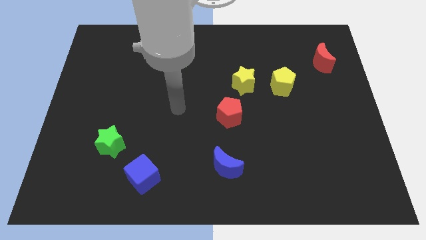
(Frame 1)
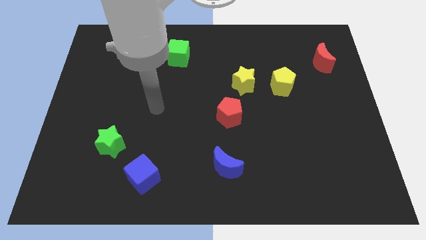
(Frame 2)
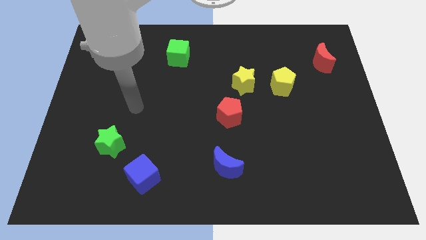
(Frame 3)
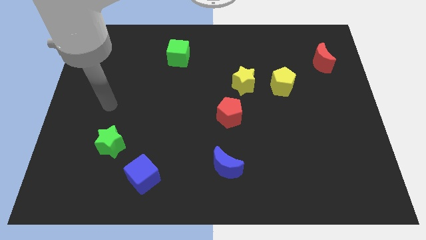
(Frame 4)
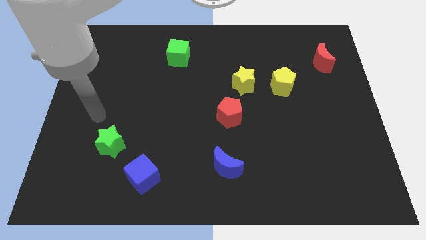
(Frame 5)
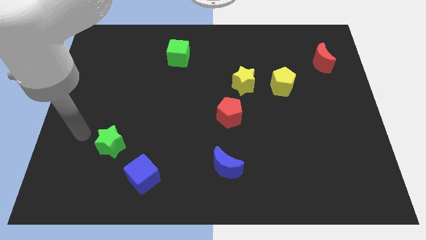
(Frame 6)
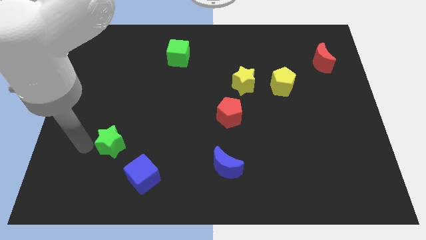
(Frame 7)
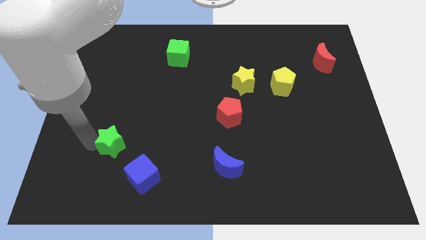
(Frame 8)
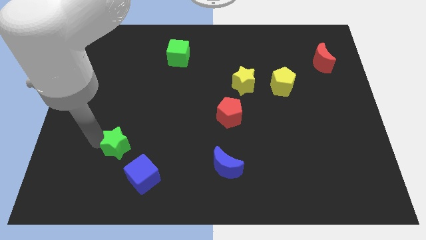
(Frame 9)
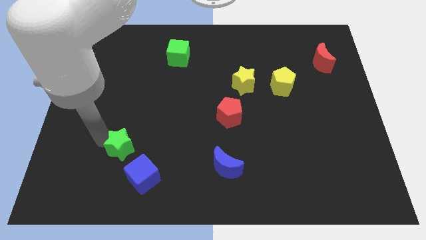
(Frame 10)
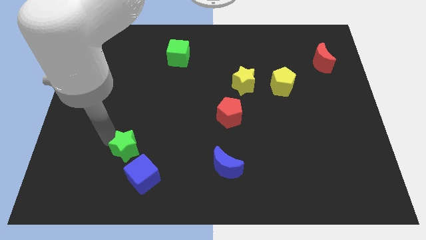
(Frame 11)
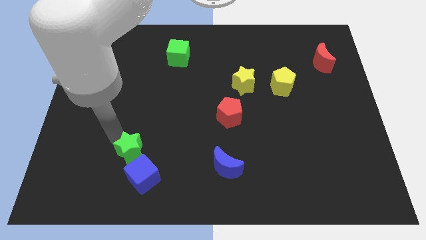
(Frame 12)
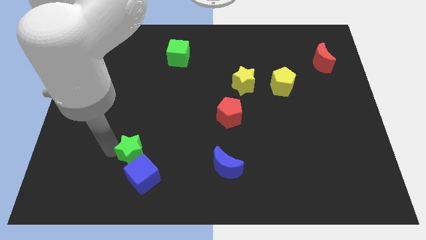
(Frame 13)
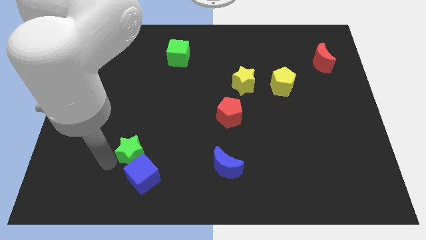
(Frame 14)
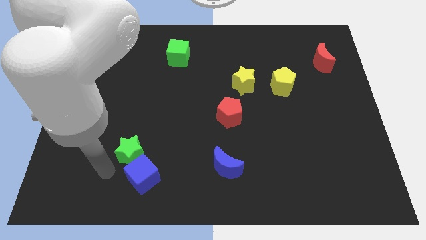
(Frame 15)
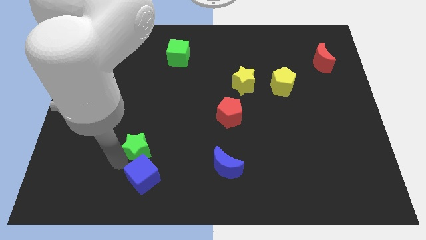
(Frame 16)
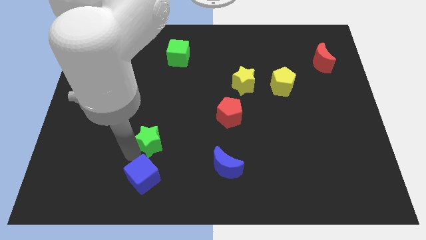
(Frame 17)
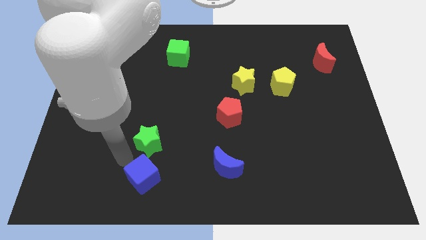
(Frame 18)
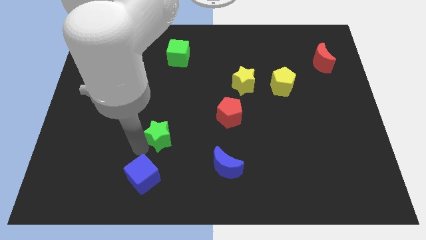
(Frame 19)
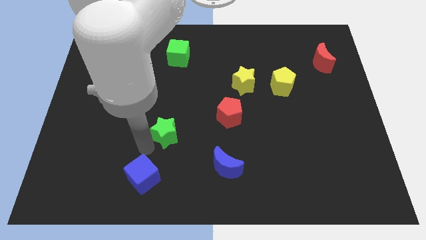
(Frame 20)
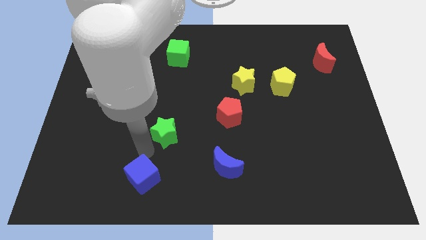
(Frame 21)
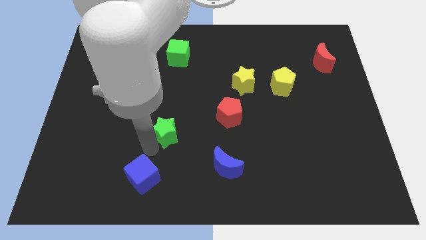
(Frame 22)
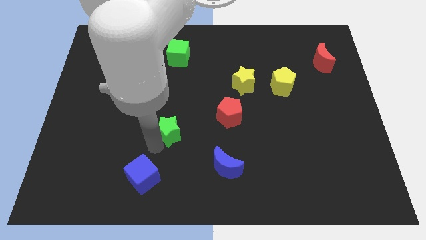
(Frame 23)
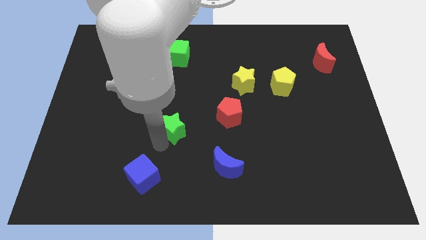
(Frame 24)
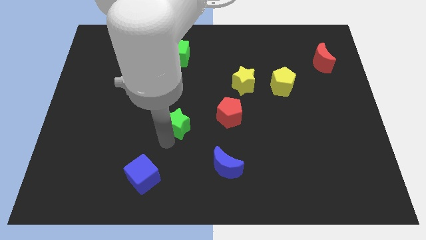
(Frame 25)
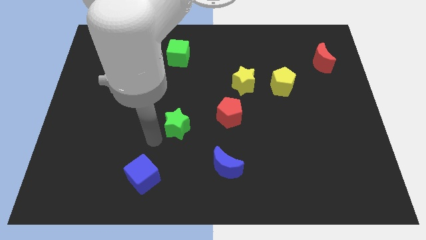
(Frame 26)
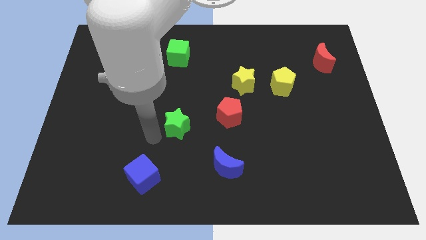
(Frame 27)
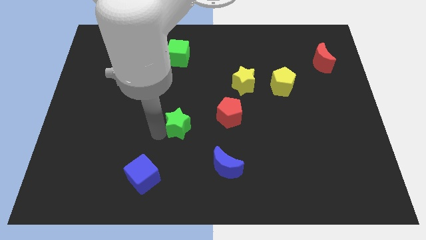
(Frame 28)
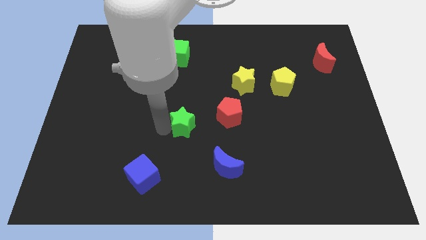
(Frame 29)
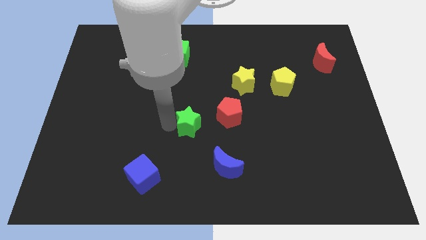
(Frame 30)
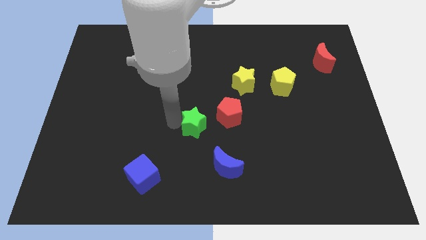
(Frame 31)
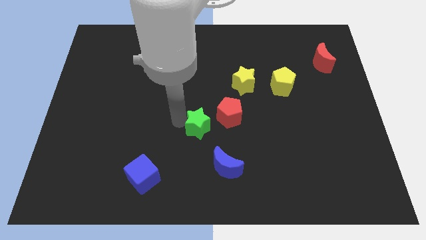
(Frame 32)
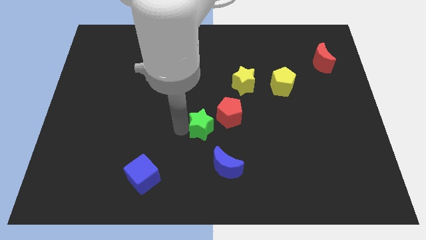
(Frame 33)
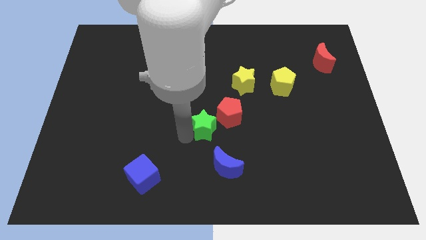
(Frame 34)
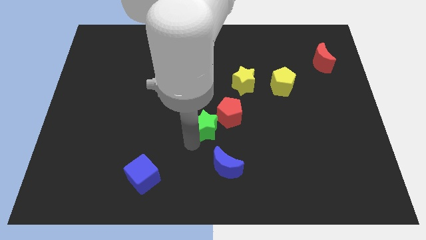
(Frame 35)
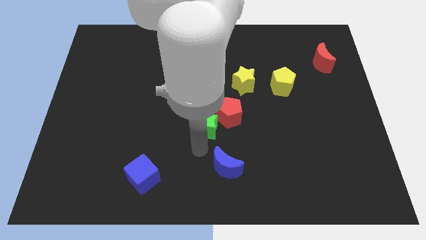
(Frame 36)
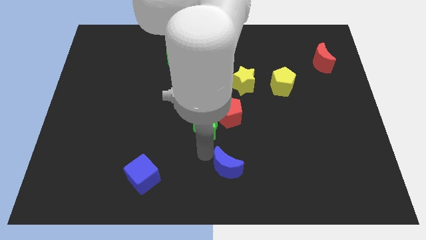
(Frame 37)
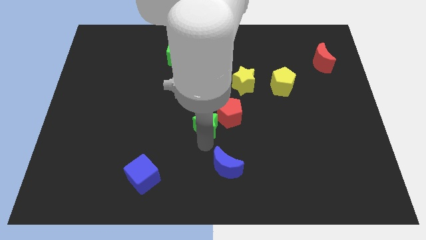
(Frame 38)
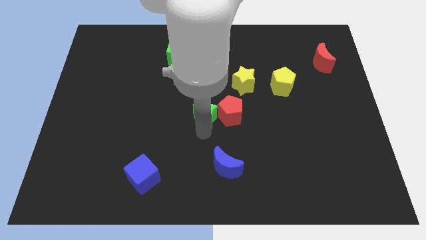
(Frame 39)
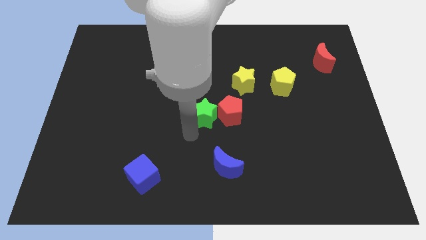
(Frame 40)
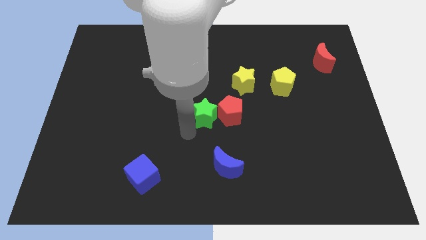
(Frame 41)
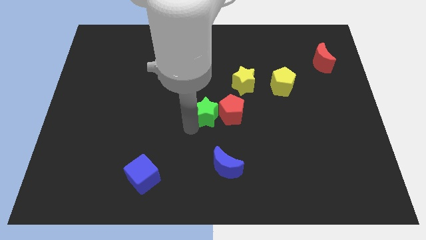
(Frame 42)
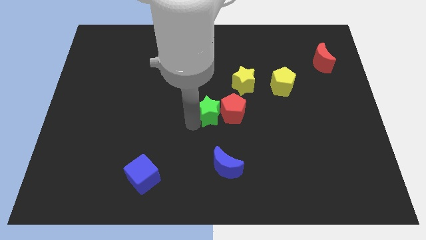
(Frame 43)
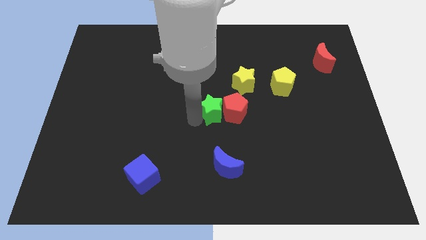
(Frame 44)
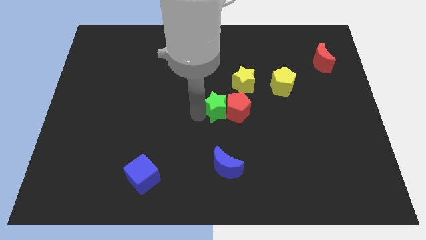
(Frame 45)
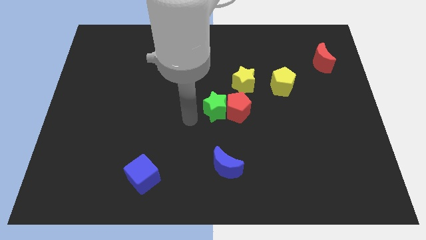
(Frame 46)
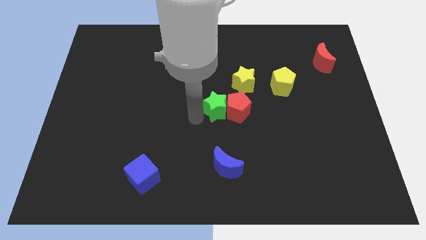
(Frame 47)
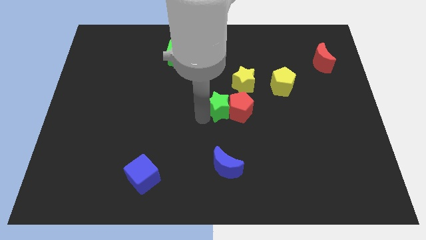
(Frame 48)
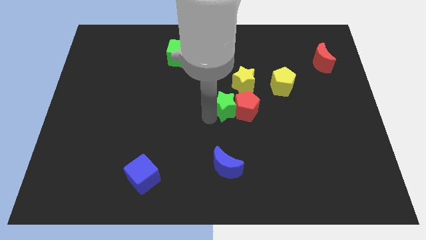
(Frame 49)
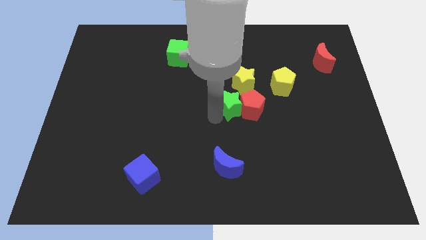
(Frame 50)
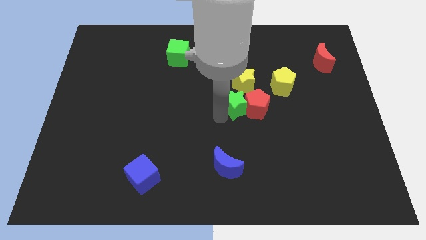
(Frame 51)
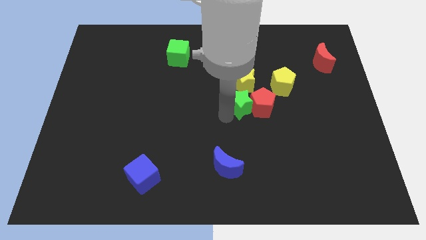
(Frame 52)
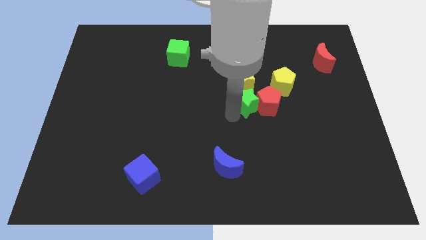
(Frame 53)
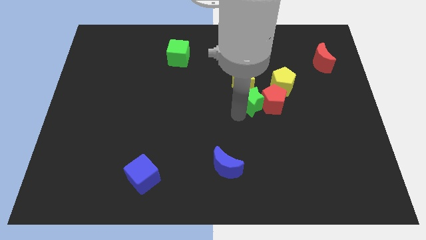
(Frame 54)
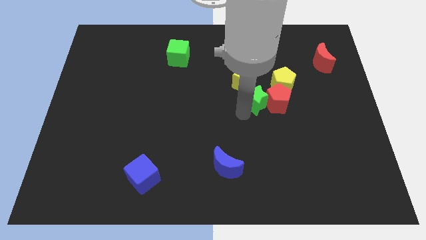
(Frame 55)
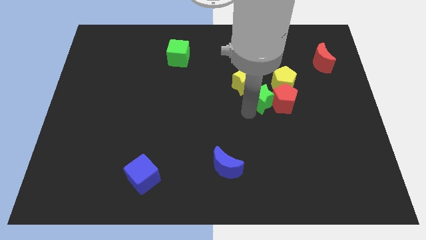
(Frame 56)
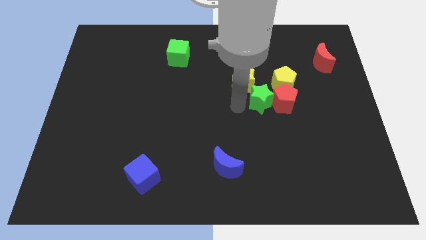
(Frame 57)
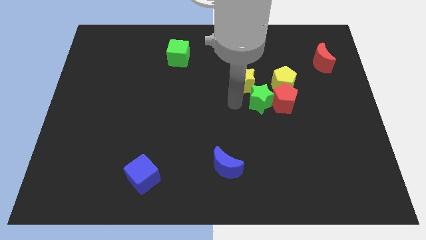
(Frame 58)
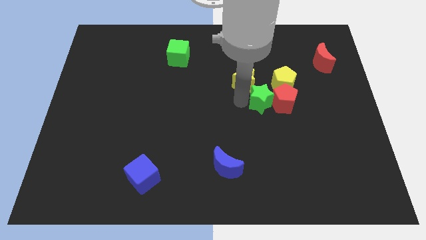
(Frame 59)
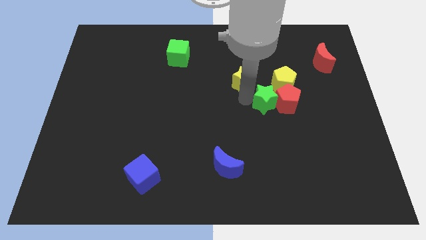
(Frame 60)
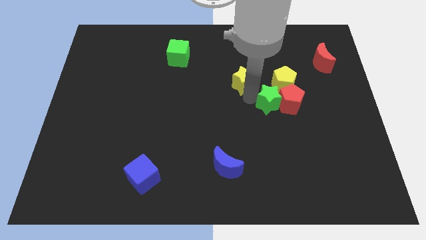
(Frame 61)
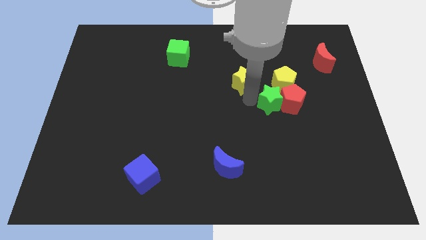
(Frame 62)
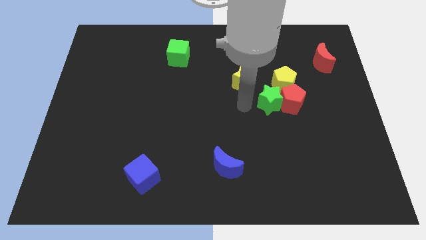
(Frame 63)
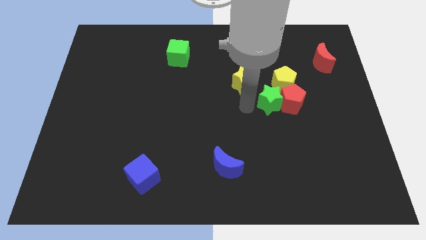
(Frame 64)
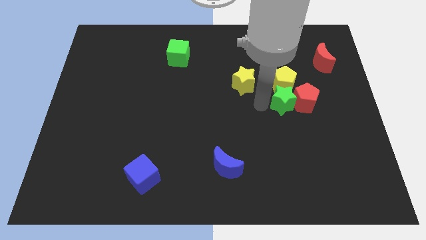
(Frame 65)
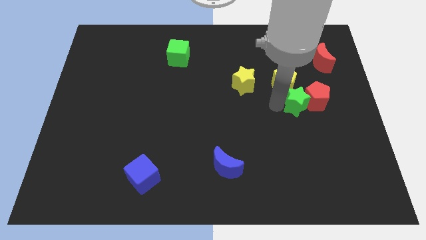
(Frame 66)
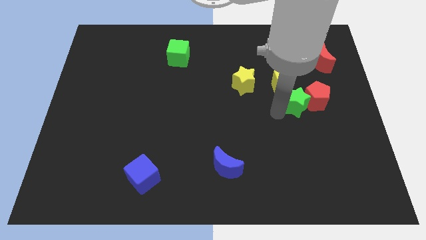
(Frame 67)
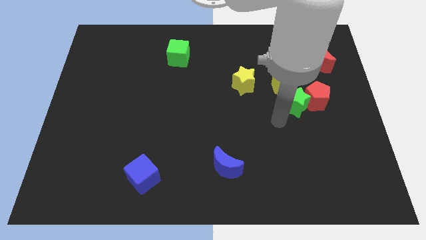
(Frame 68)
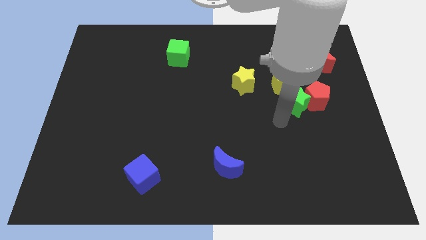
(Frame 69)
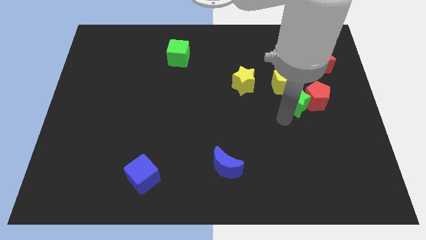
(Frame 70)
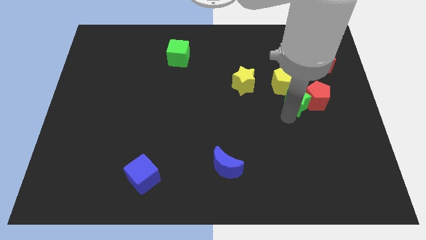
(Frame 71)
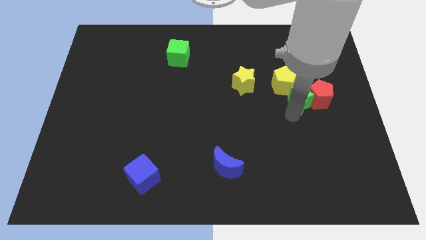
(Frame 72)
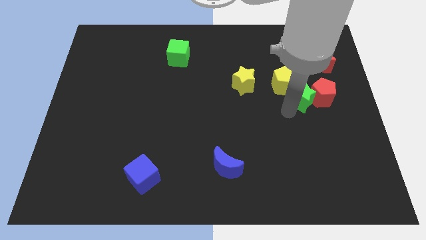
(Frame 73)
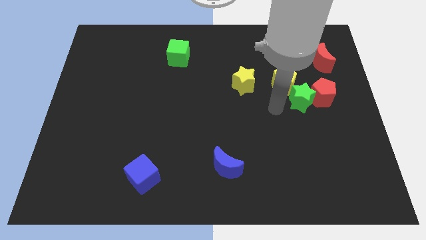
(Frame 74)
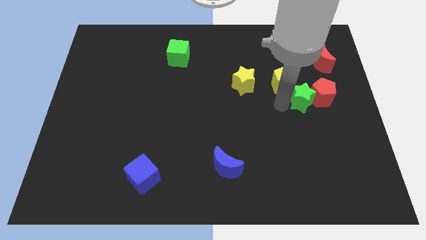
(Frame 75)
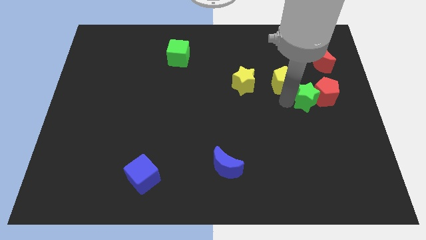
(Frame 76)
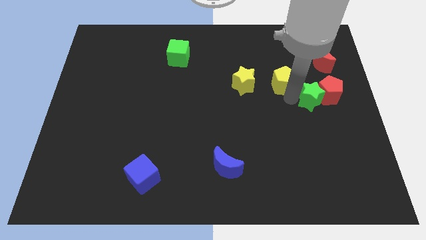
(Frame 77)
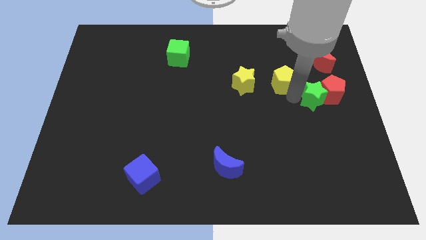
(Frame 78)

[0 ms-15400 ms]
move the green star to the bottom of the red moon
